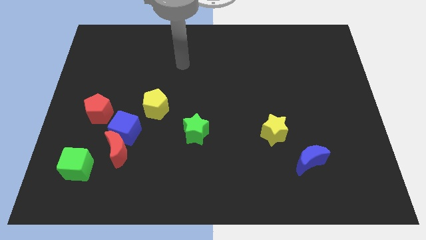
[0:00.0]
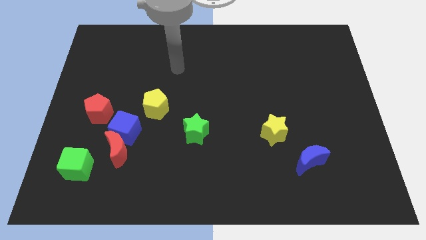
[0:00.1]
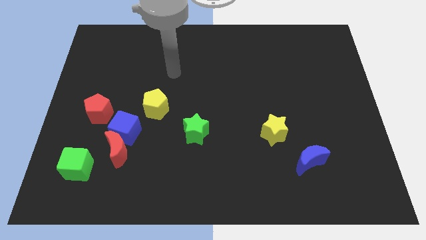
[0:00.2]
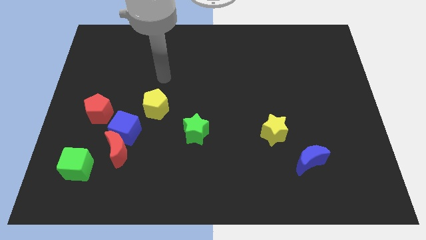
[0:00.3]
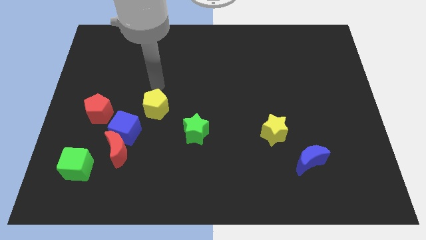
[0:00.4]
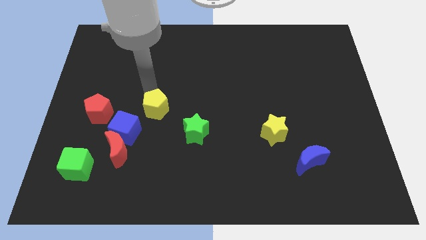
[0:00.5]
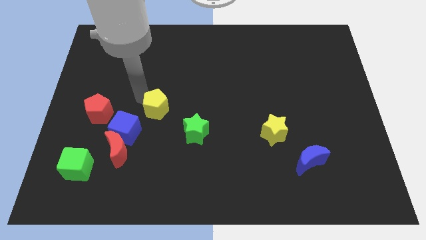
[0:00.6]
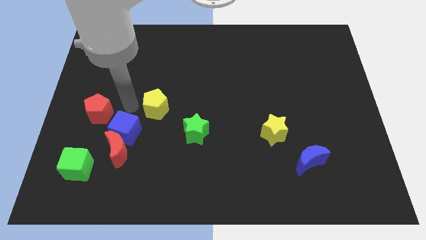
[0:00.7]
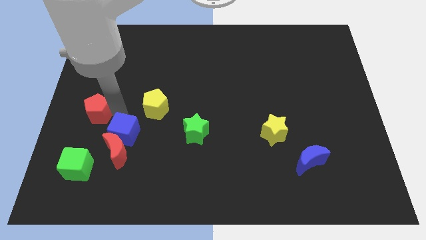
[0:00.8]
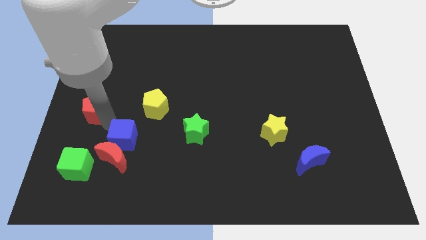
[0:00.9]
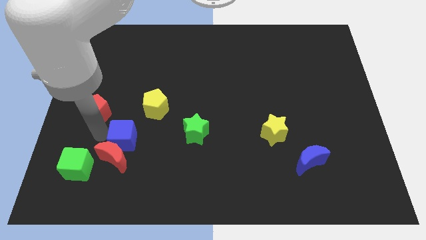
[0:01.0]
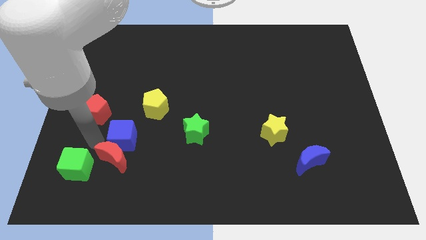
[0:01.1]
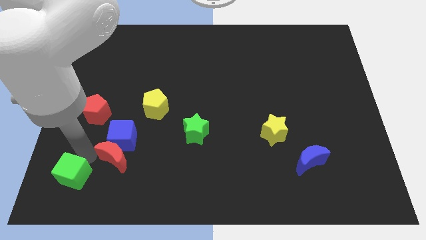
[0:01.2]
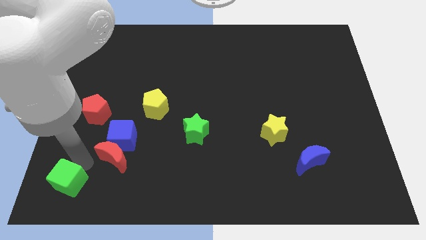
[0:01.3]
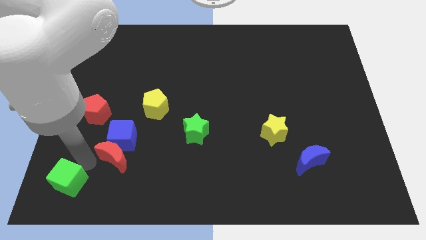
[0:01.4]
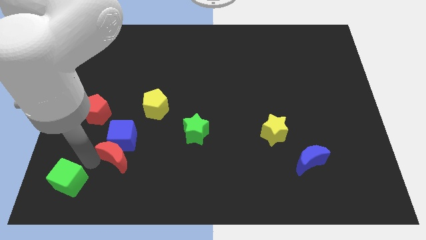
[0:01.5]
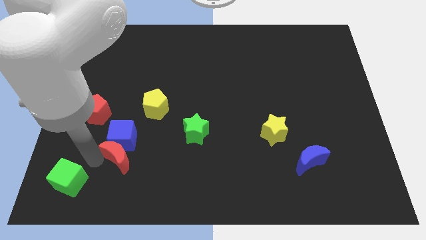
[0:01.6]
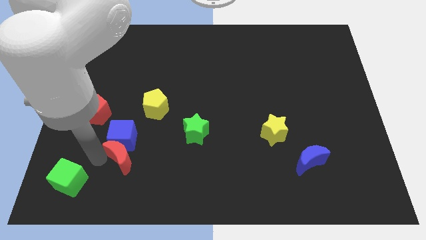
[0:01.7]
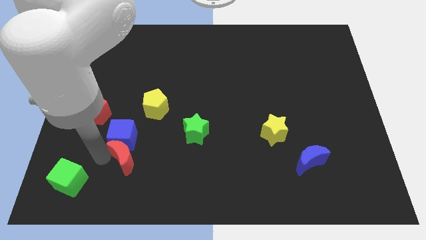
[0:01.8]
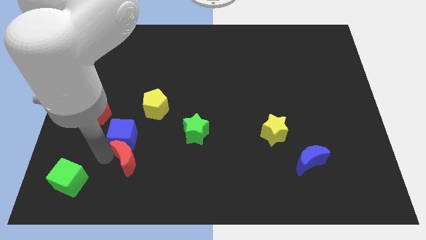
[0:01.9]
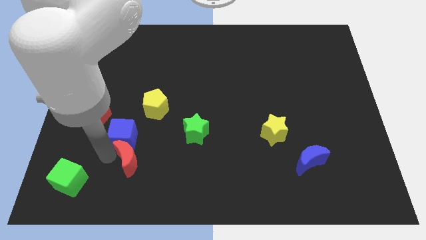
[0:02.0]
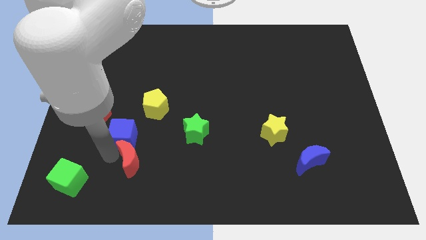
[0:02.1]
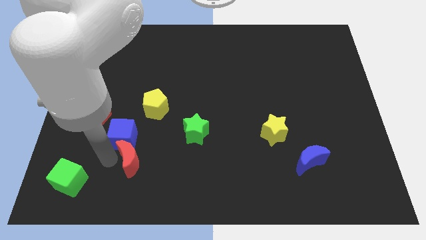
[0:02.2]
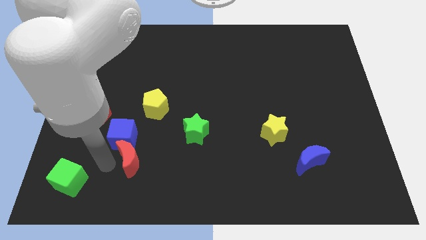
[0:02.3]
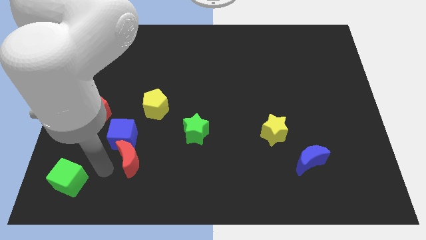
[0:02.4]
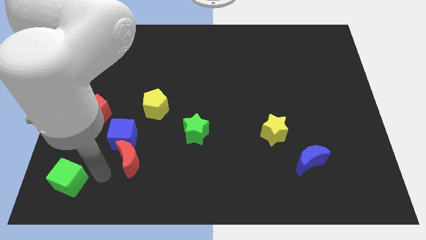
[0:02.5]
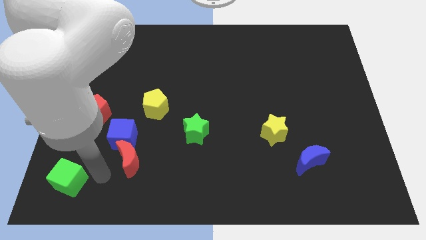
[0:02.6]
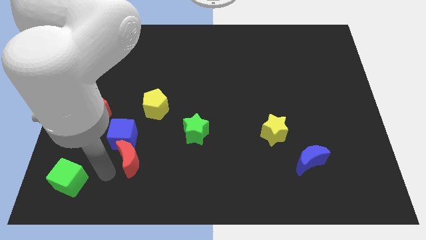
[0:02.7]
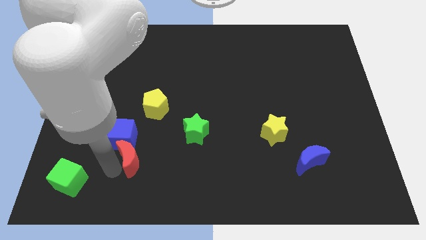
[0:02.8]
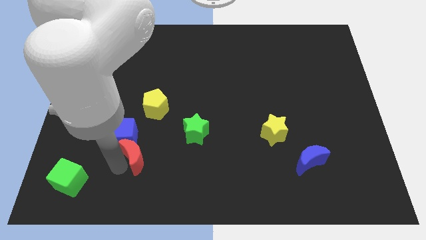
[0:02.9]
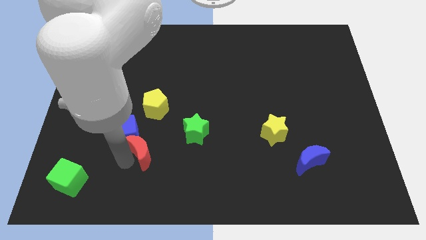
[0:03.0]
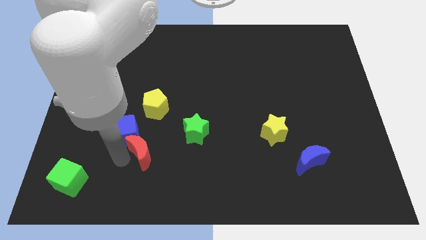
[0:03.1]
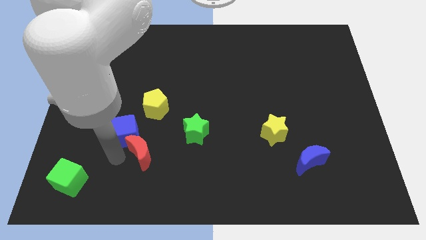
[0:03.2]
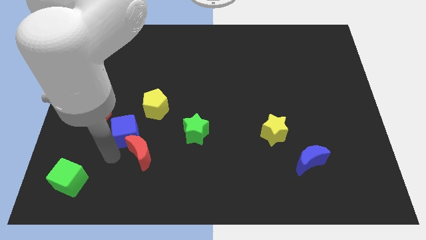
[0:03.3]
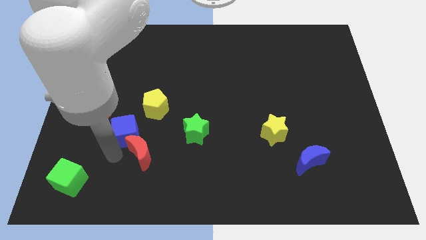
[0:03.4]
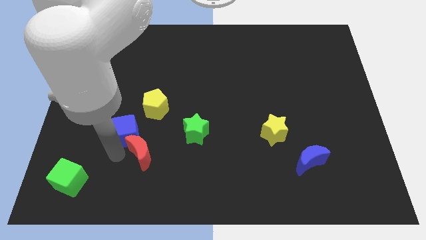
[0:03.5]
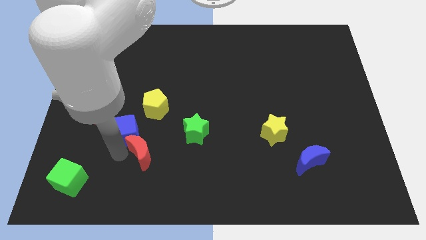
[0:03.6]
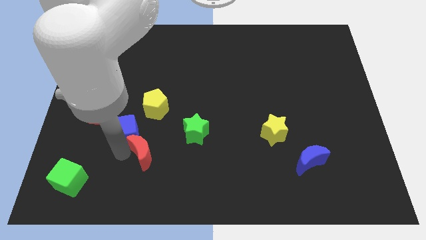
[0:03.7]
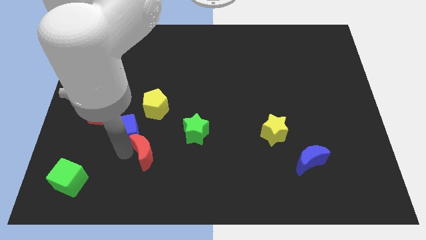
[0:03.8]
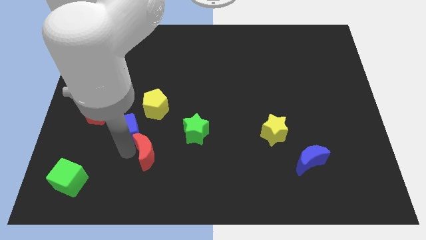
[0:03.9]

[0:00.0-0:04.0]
separate the red moon from the blue cube and green cube

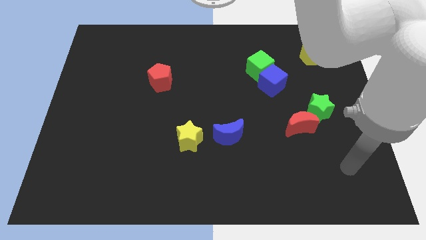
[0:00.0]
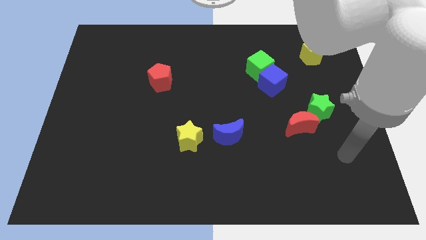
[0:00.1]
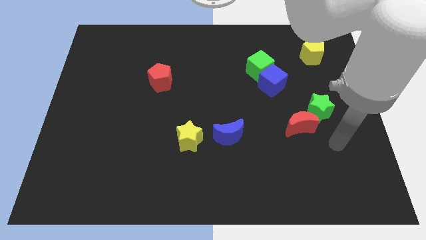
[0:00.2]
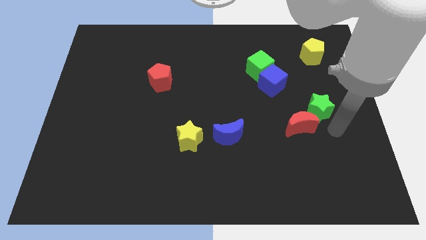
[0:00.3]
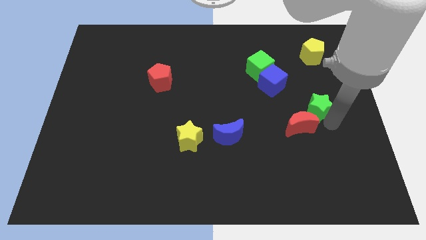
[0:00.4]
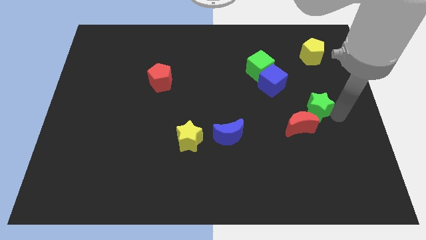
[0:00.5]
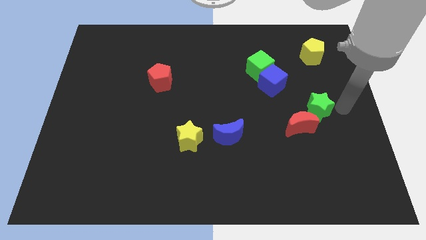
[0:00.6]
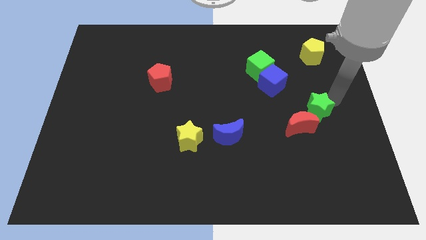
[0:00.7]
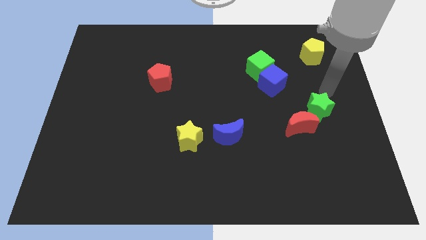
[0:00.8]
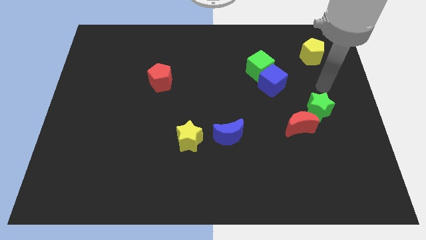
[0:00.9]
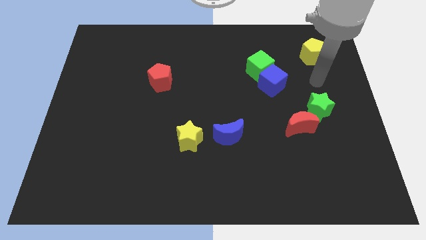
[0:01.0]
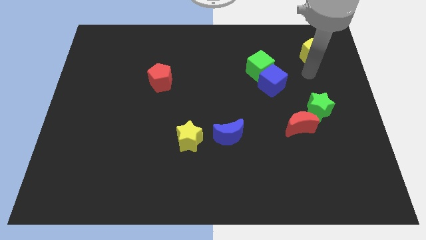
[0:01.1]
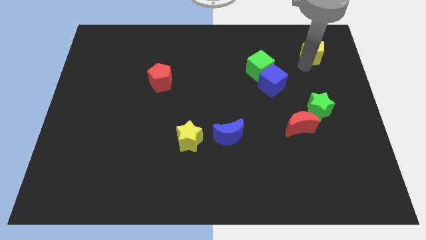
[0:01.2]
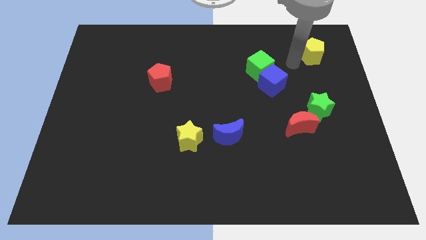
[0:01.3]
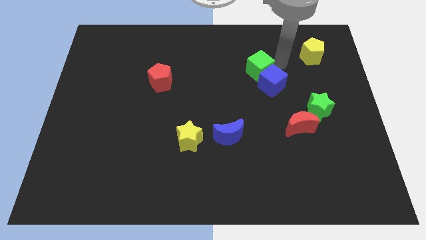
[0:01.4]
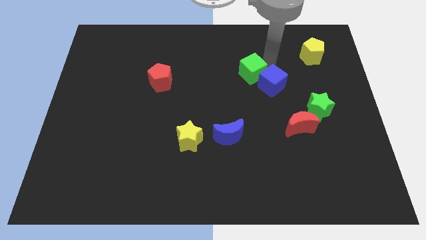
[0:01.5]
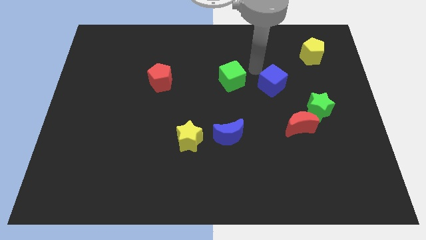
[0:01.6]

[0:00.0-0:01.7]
move the blue cube away from the green cube

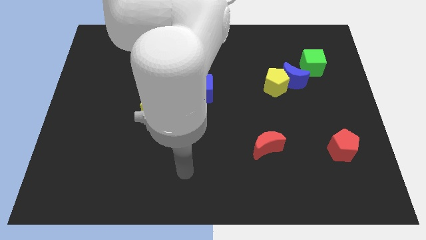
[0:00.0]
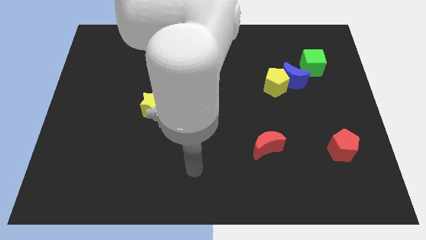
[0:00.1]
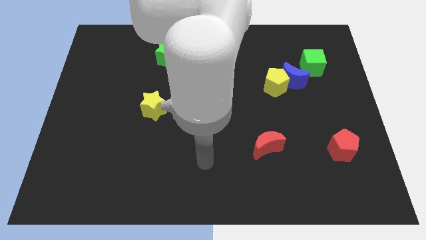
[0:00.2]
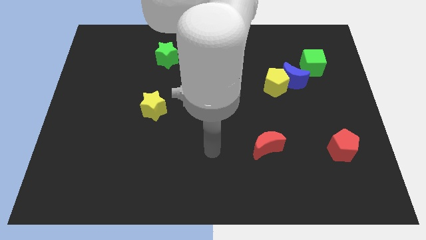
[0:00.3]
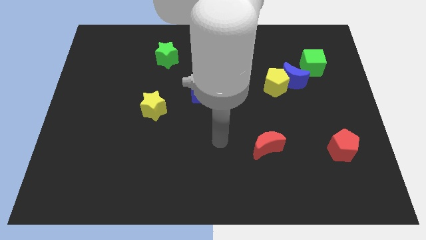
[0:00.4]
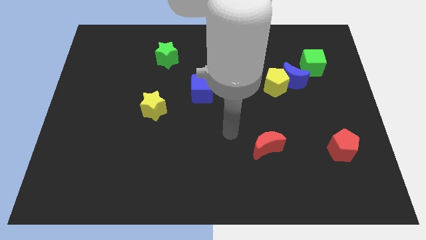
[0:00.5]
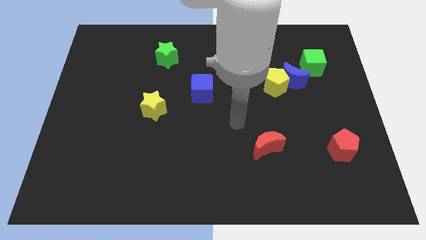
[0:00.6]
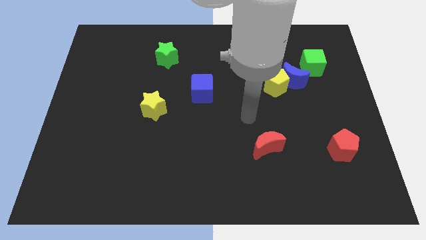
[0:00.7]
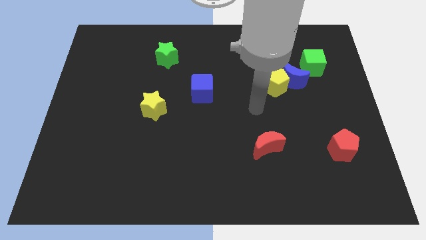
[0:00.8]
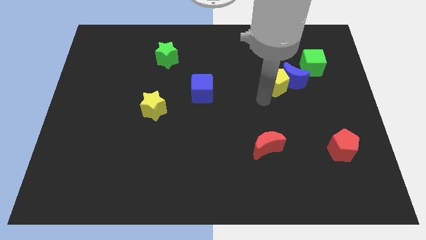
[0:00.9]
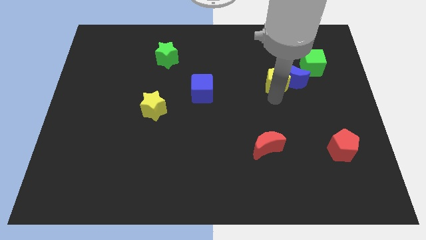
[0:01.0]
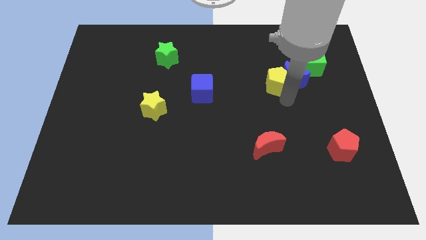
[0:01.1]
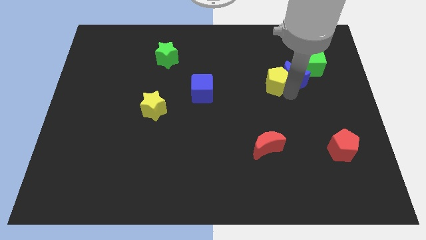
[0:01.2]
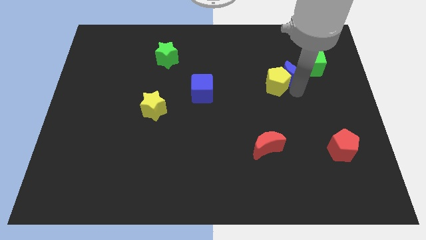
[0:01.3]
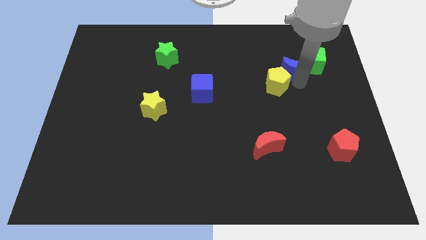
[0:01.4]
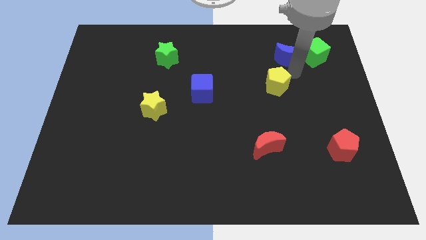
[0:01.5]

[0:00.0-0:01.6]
separate the yellow pentagon from the blue moon

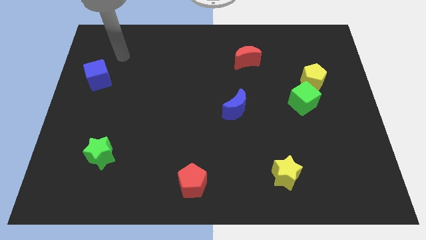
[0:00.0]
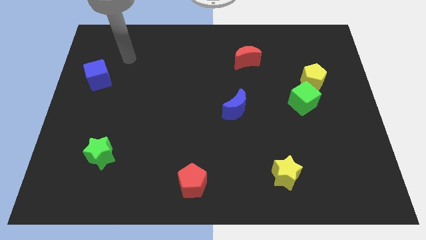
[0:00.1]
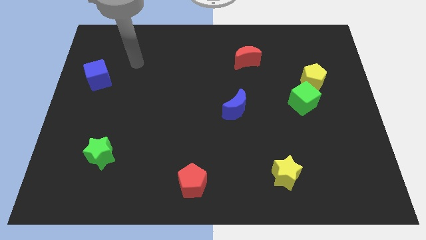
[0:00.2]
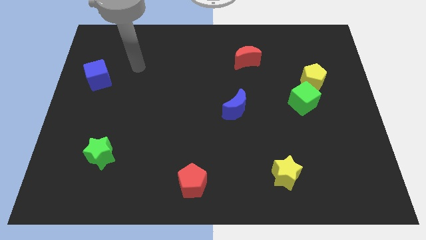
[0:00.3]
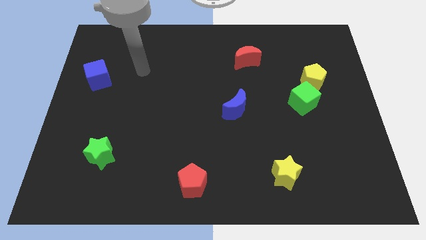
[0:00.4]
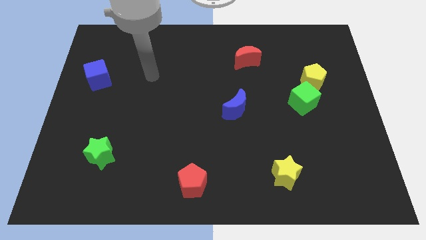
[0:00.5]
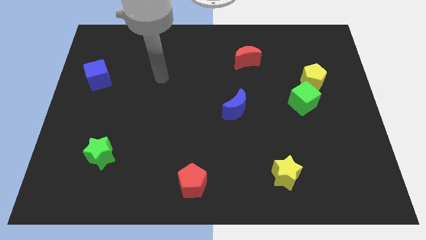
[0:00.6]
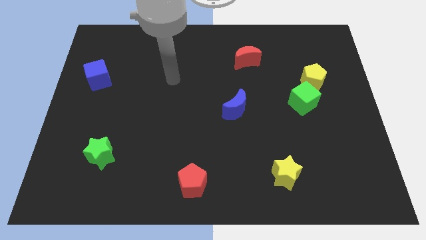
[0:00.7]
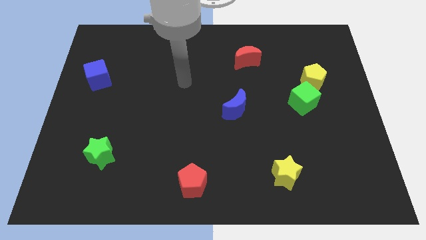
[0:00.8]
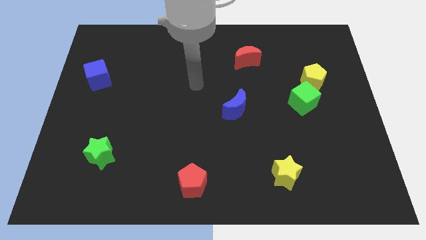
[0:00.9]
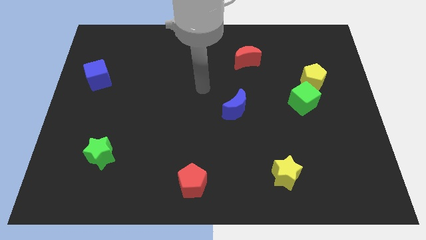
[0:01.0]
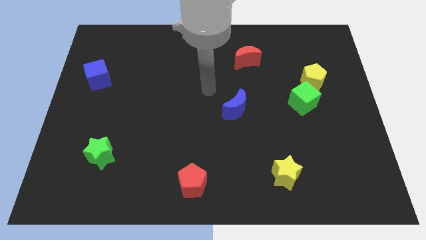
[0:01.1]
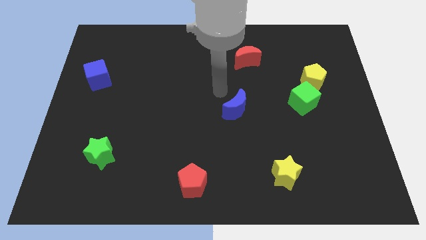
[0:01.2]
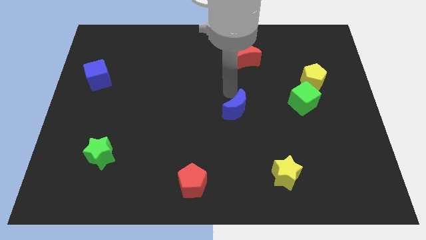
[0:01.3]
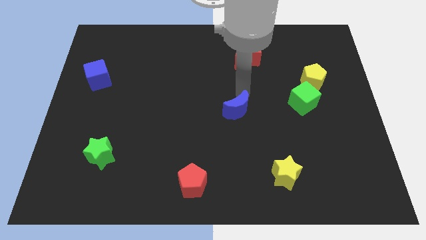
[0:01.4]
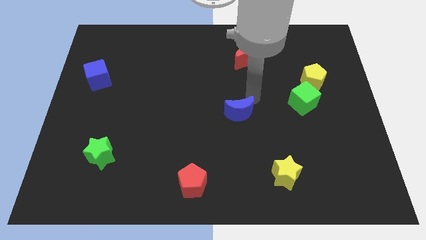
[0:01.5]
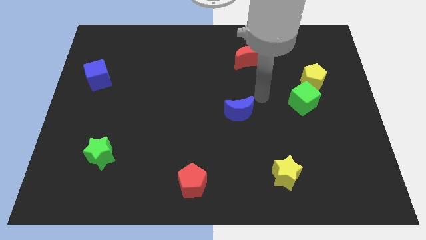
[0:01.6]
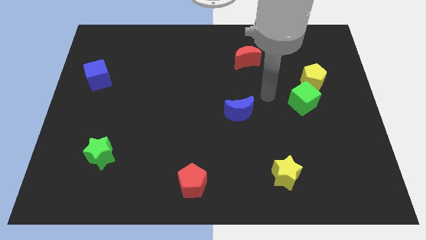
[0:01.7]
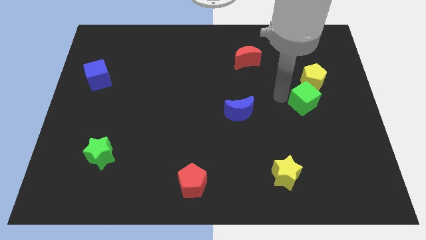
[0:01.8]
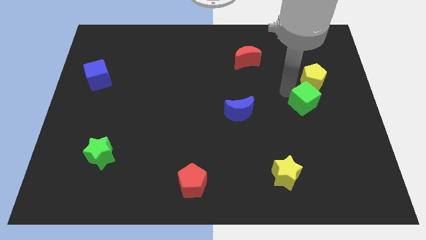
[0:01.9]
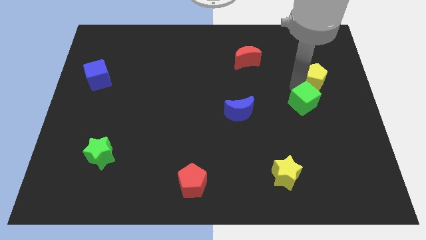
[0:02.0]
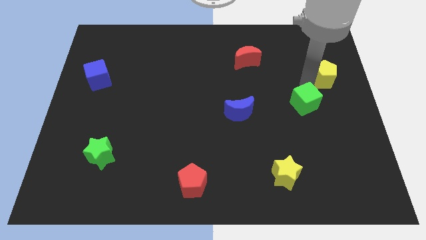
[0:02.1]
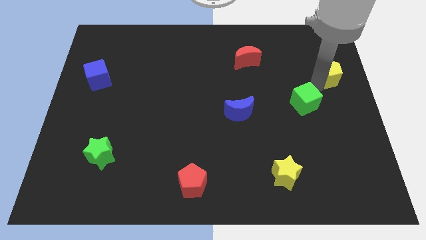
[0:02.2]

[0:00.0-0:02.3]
separate the green cube from the yellow pentagon

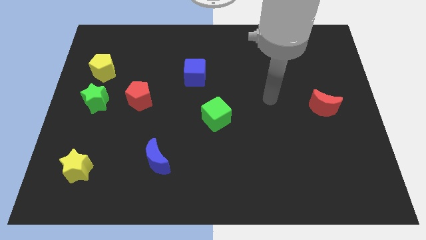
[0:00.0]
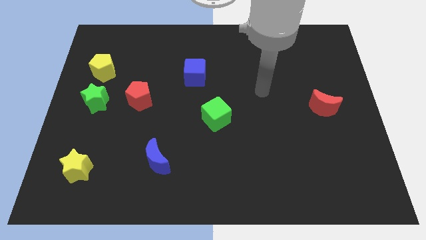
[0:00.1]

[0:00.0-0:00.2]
move the yellow pentagon away from the green star
